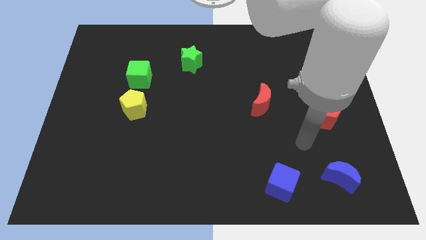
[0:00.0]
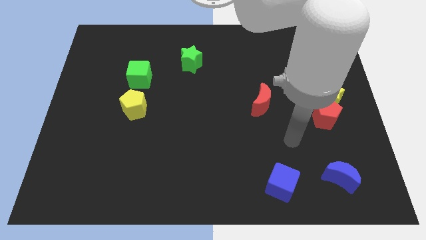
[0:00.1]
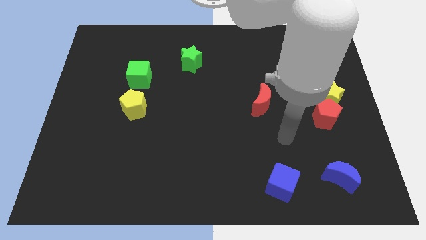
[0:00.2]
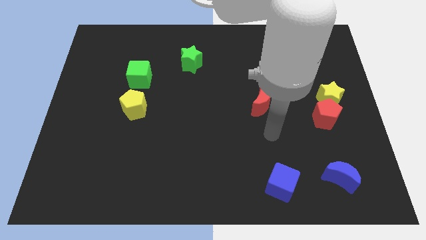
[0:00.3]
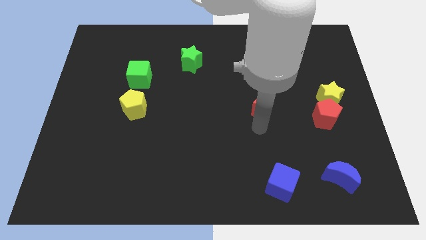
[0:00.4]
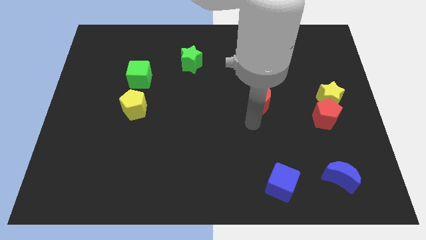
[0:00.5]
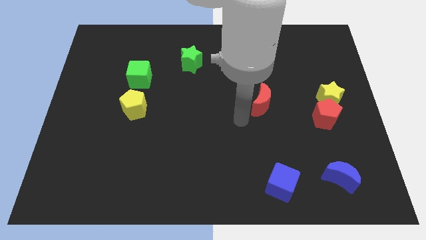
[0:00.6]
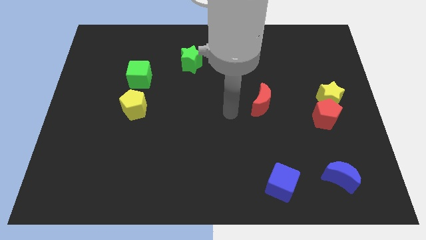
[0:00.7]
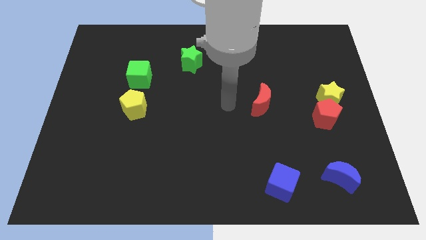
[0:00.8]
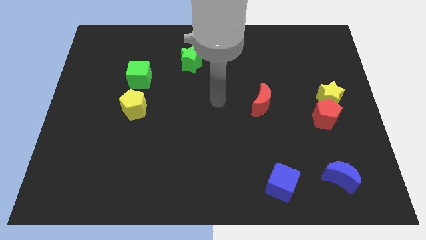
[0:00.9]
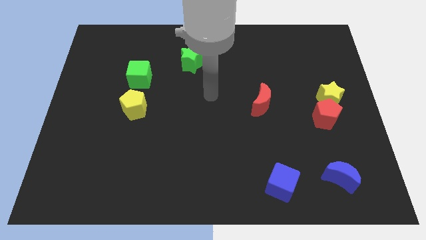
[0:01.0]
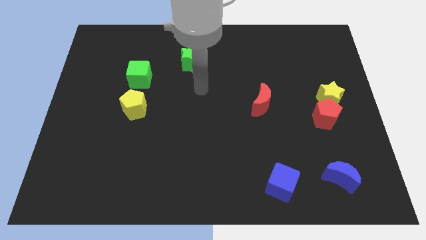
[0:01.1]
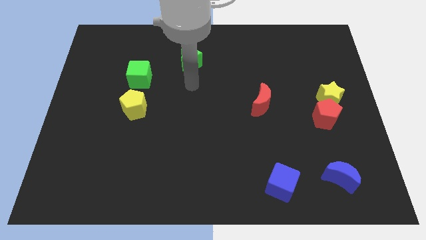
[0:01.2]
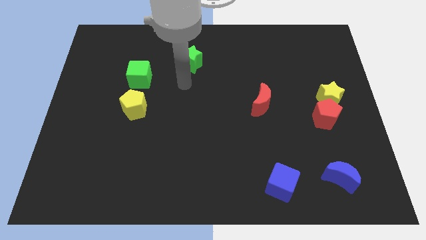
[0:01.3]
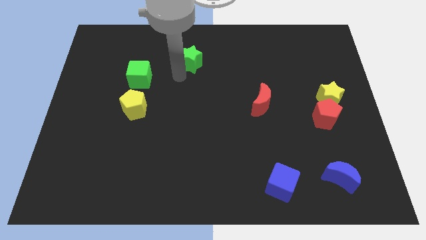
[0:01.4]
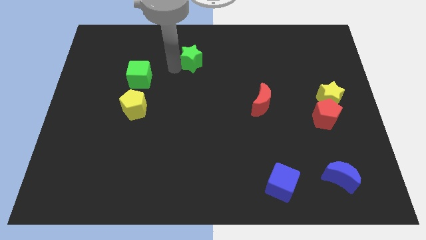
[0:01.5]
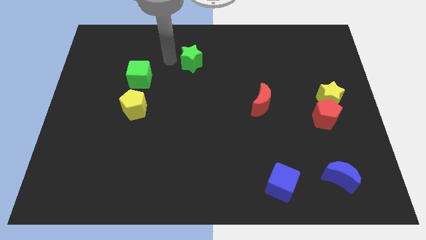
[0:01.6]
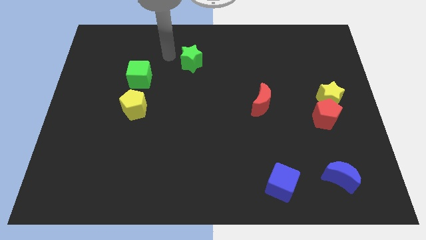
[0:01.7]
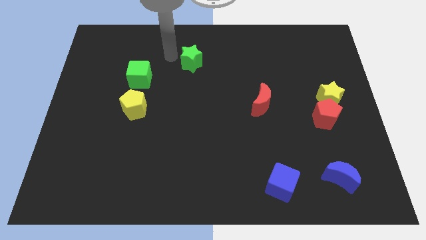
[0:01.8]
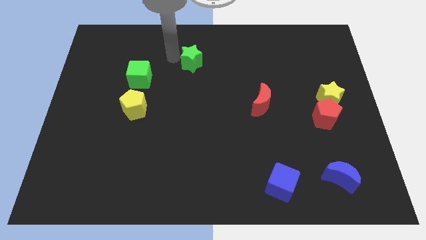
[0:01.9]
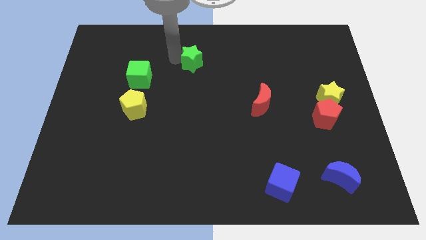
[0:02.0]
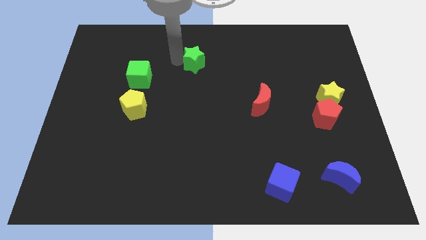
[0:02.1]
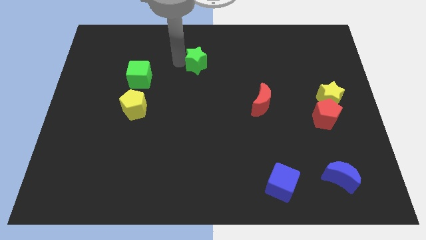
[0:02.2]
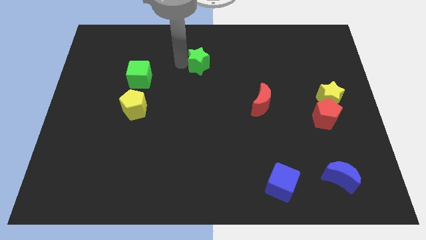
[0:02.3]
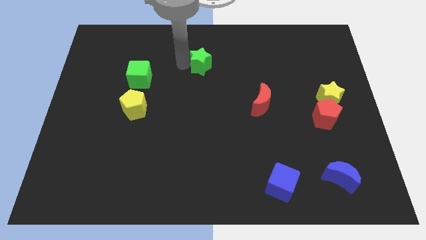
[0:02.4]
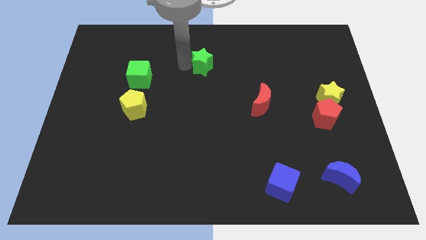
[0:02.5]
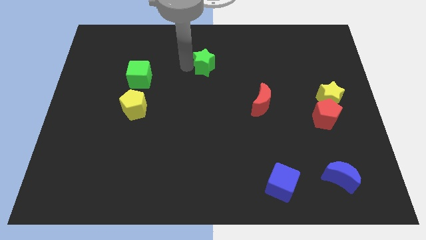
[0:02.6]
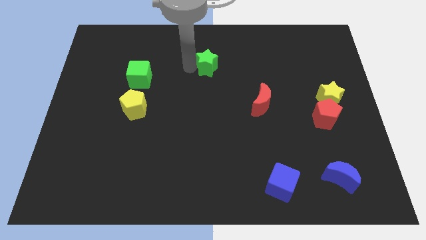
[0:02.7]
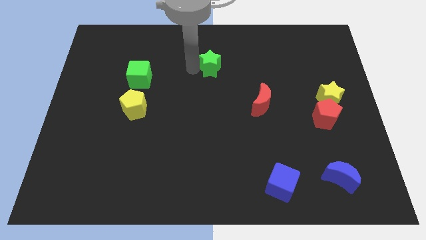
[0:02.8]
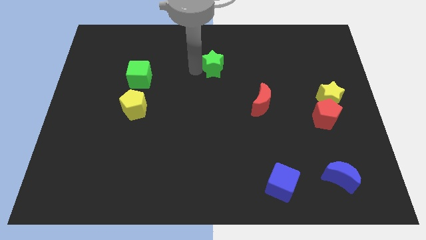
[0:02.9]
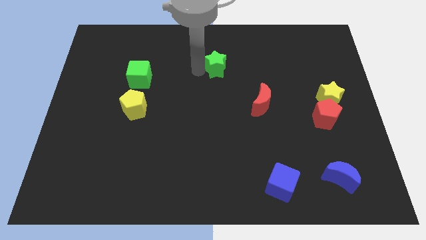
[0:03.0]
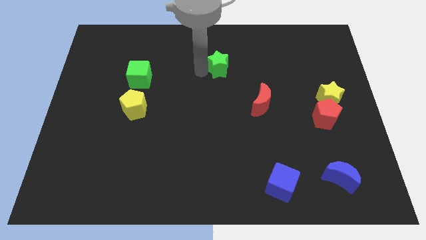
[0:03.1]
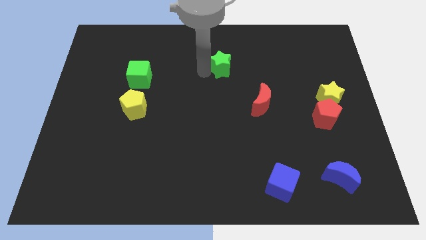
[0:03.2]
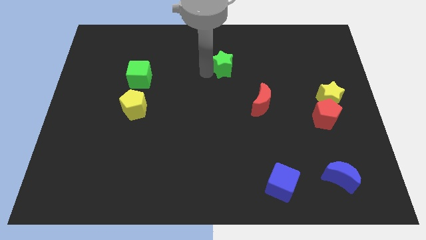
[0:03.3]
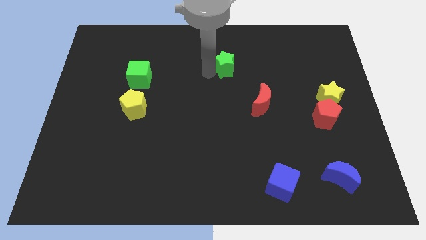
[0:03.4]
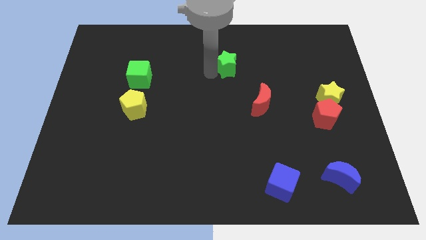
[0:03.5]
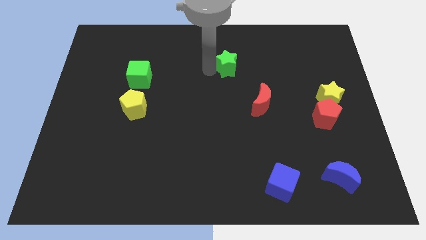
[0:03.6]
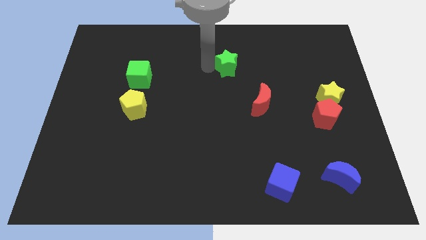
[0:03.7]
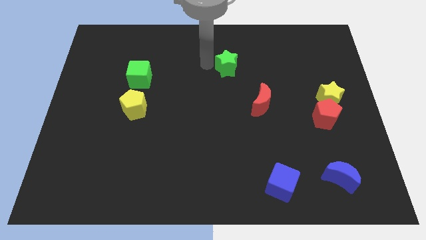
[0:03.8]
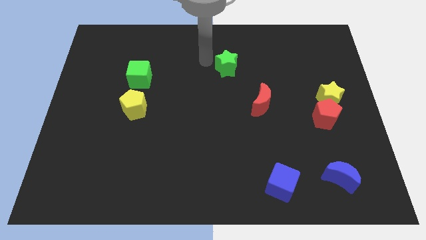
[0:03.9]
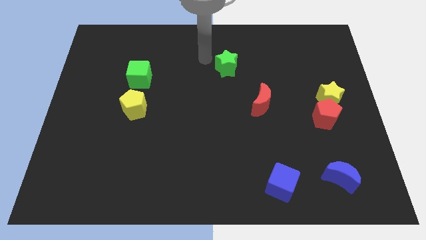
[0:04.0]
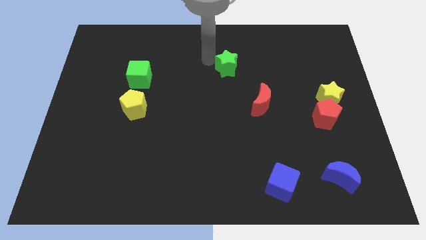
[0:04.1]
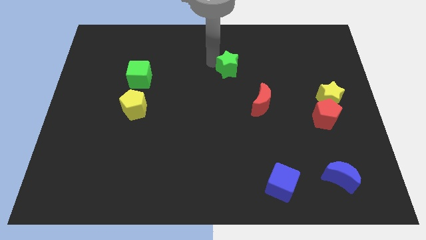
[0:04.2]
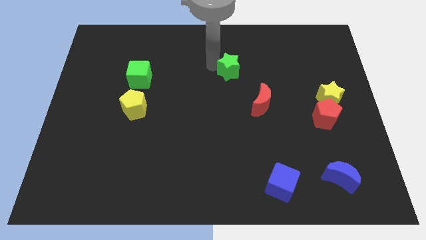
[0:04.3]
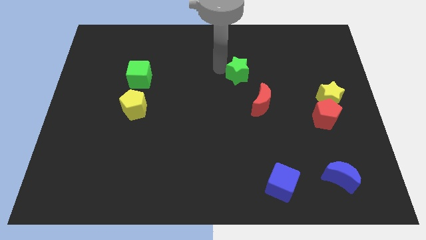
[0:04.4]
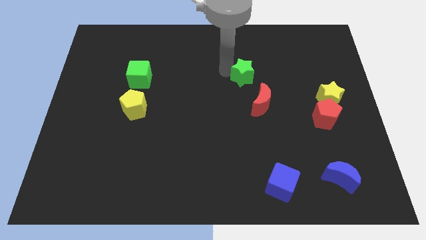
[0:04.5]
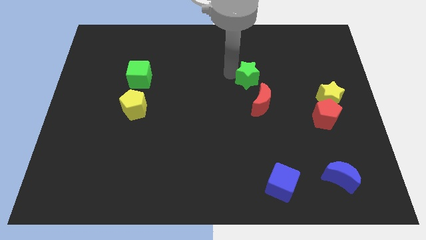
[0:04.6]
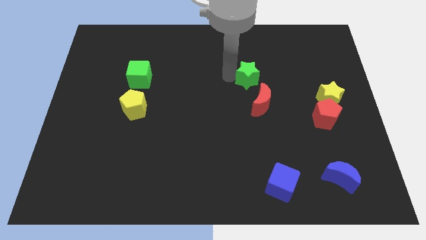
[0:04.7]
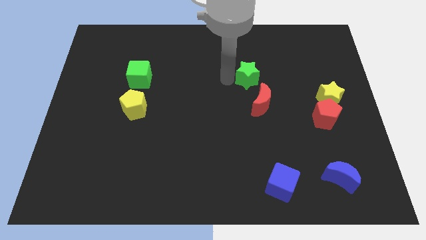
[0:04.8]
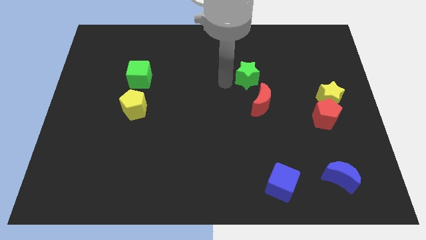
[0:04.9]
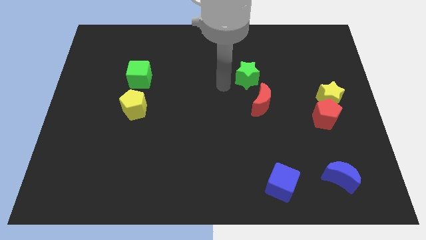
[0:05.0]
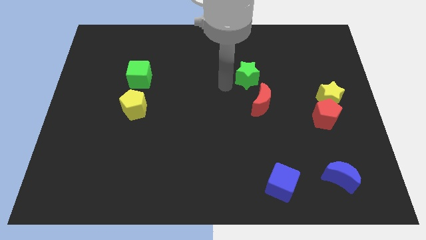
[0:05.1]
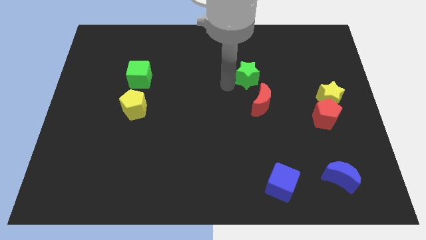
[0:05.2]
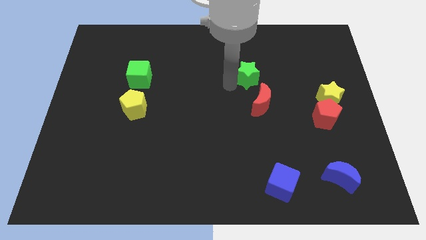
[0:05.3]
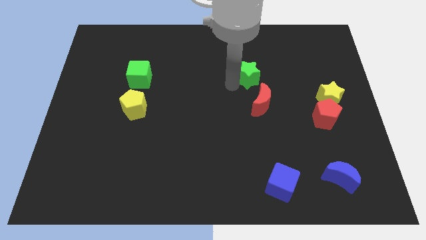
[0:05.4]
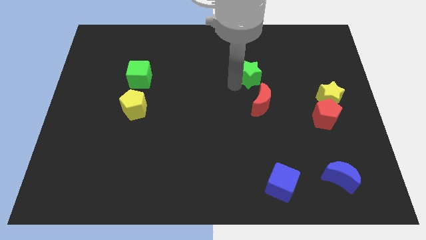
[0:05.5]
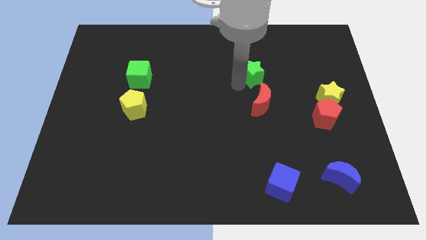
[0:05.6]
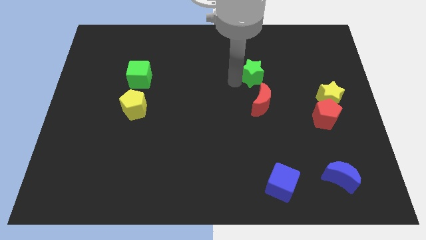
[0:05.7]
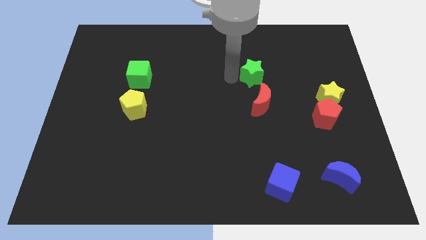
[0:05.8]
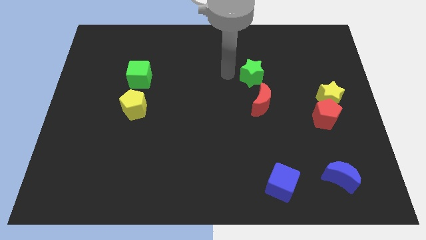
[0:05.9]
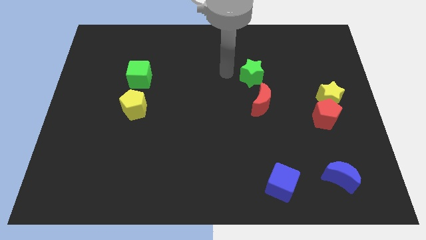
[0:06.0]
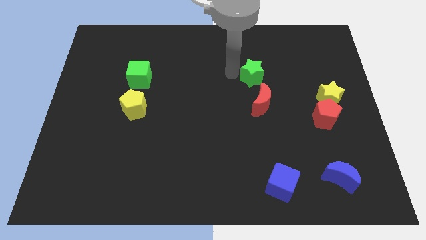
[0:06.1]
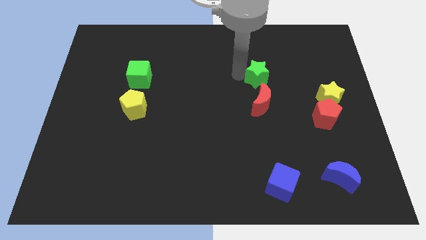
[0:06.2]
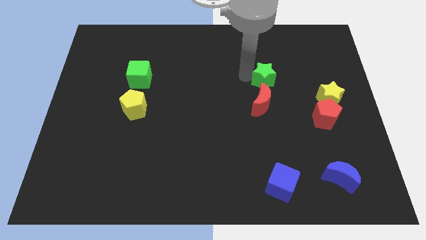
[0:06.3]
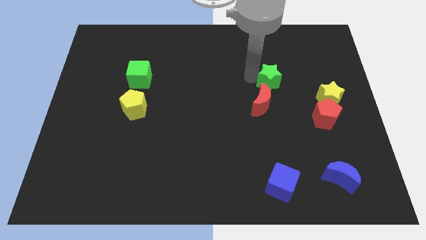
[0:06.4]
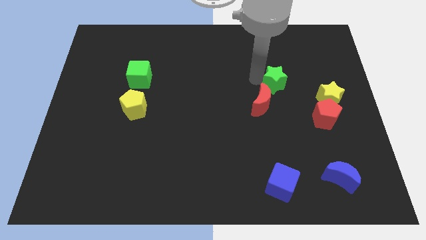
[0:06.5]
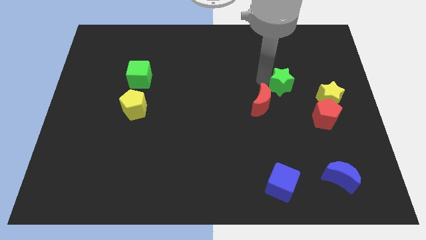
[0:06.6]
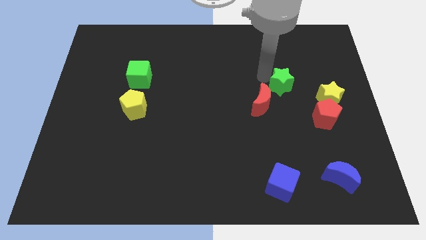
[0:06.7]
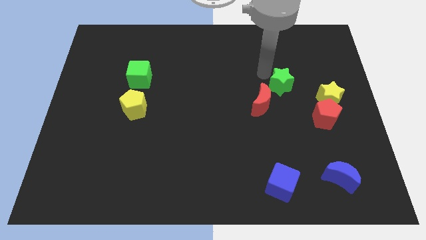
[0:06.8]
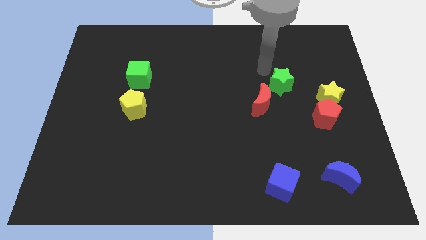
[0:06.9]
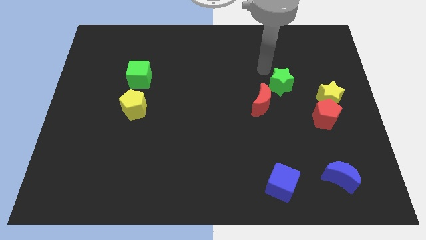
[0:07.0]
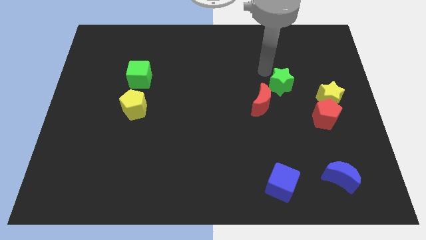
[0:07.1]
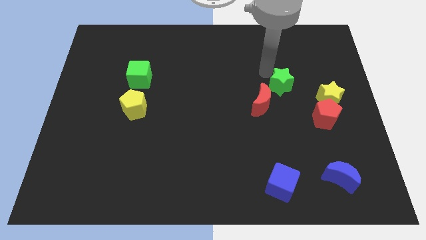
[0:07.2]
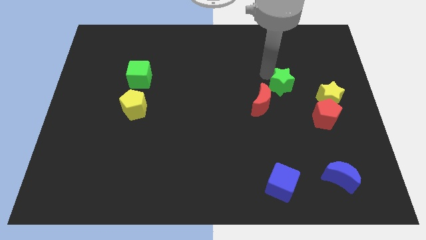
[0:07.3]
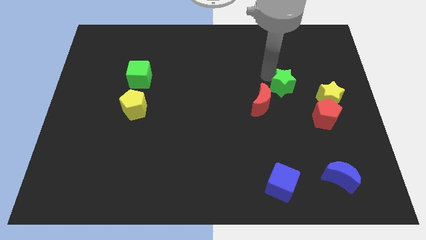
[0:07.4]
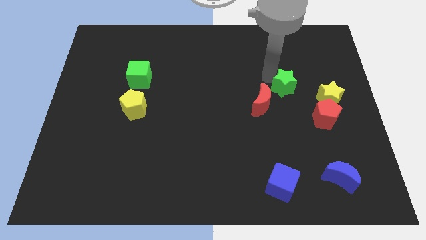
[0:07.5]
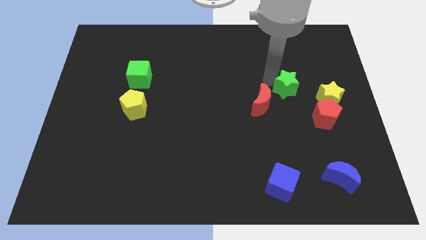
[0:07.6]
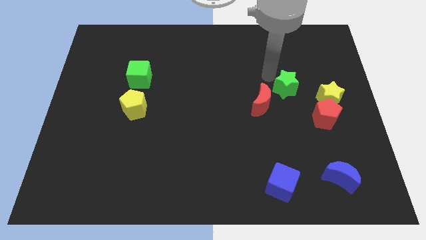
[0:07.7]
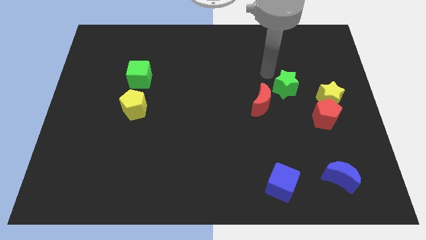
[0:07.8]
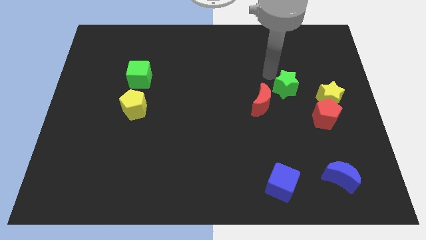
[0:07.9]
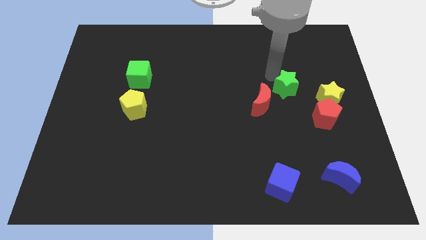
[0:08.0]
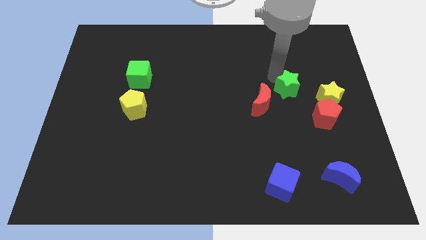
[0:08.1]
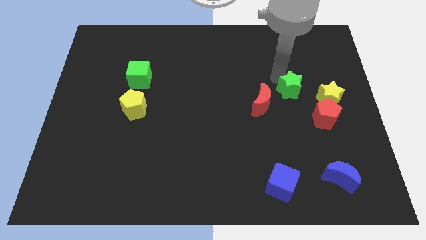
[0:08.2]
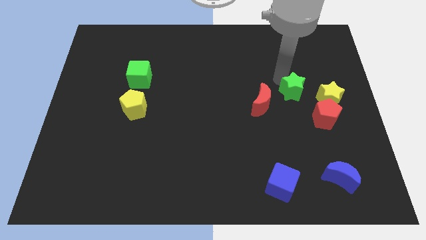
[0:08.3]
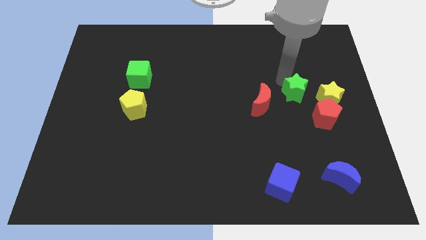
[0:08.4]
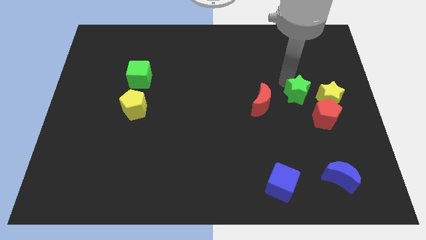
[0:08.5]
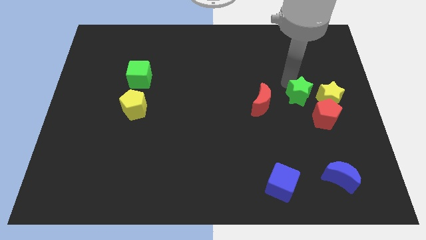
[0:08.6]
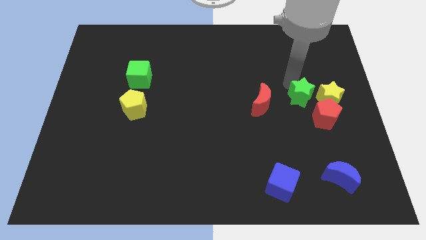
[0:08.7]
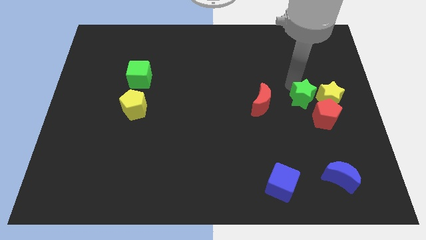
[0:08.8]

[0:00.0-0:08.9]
slide the green star to the yellow star
